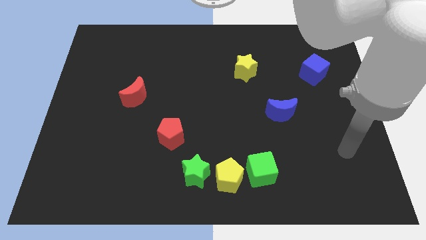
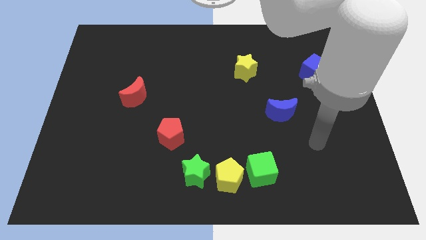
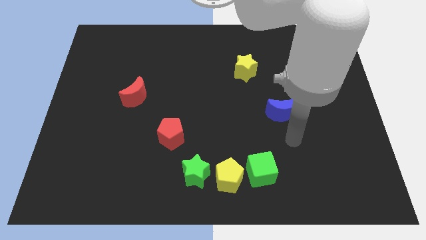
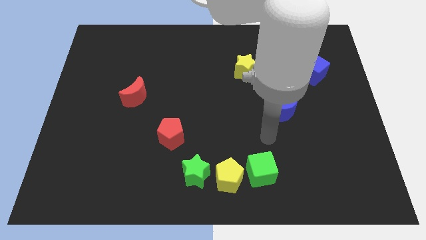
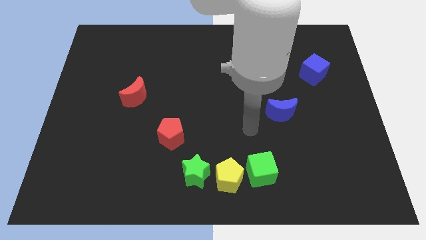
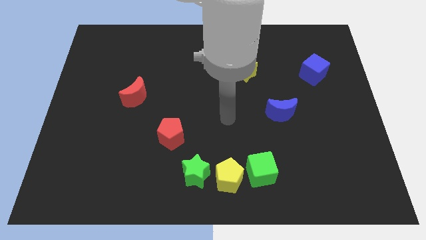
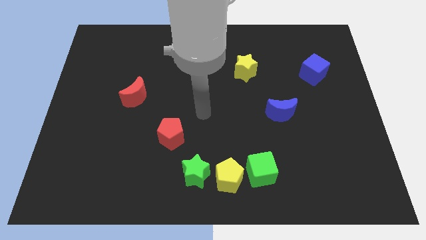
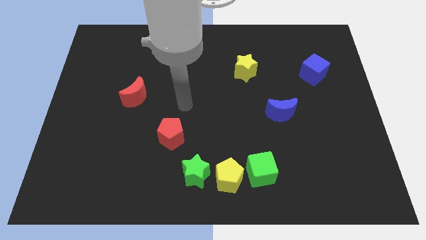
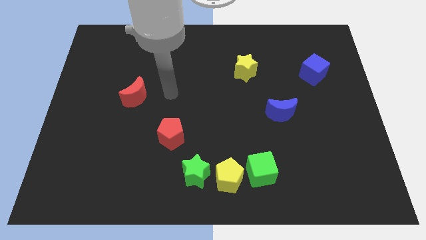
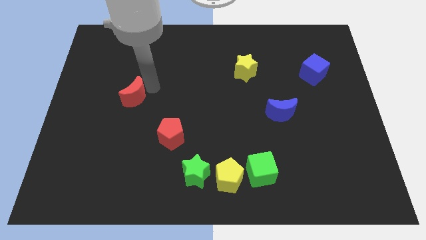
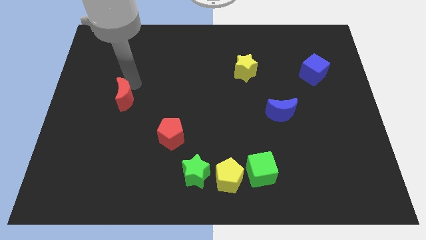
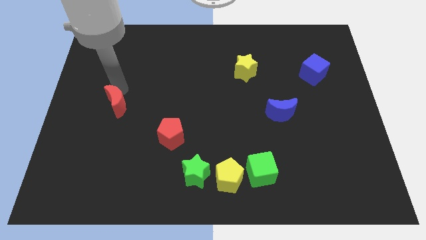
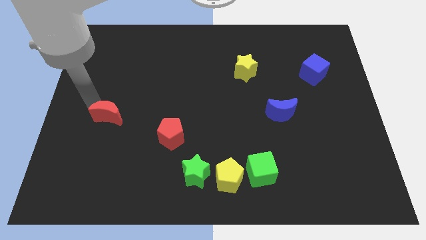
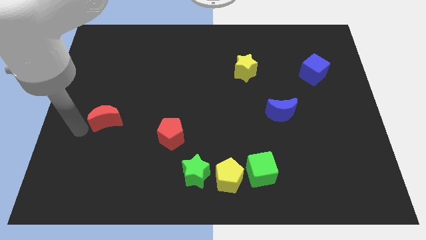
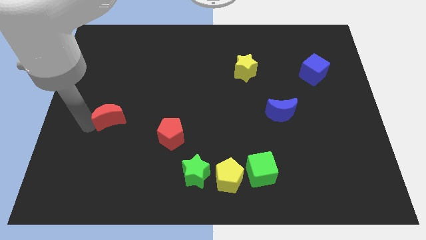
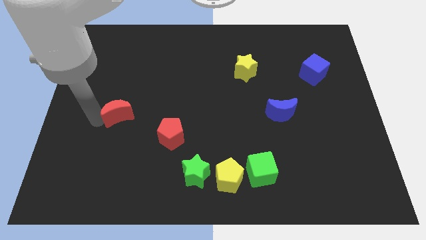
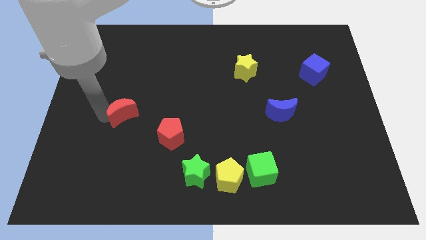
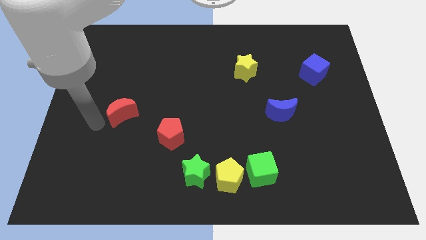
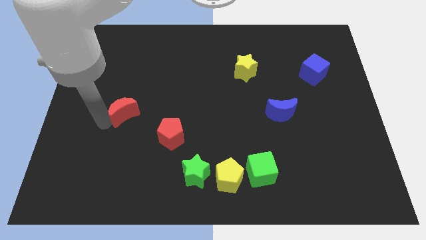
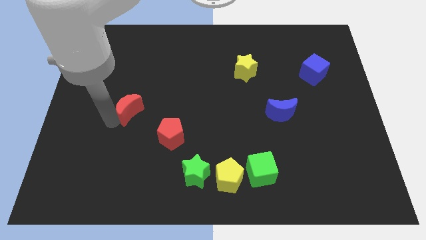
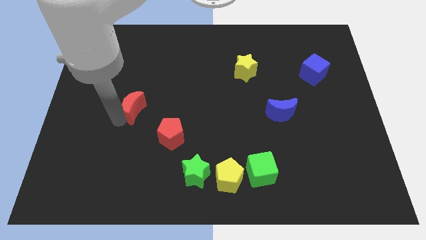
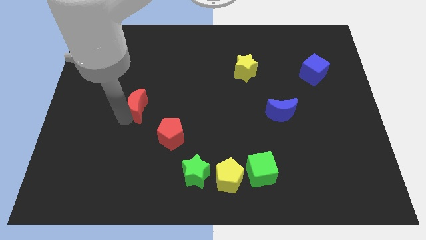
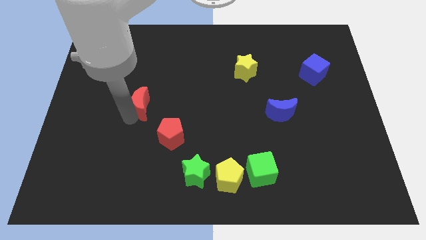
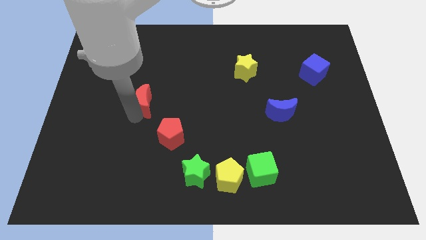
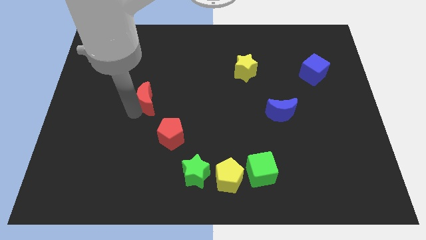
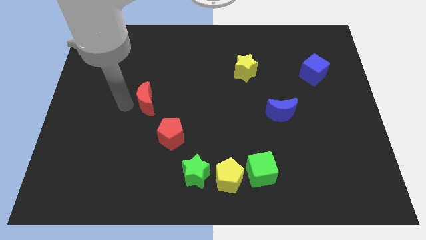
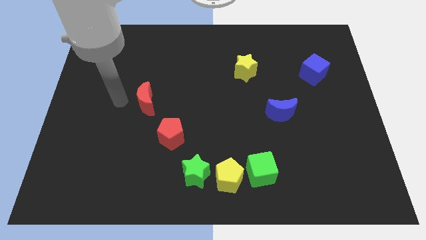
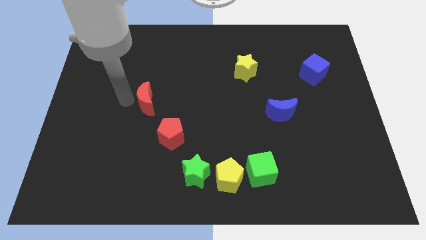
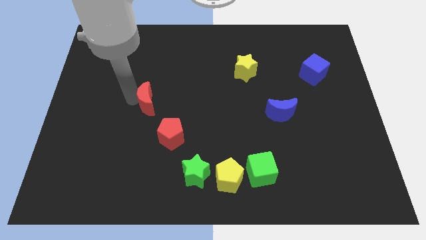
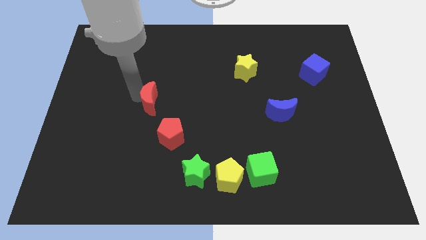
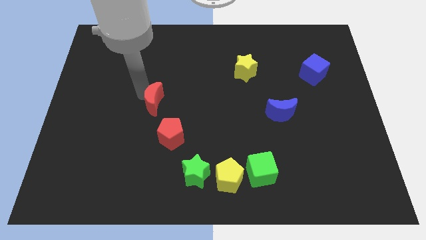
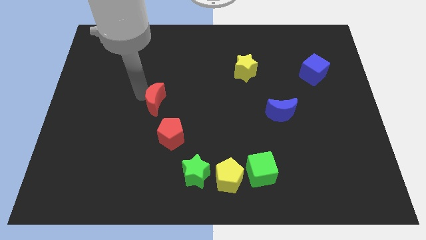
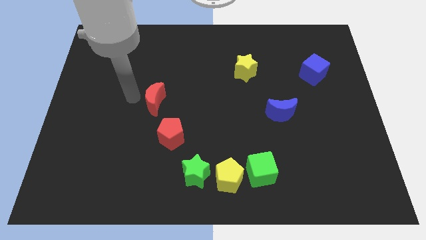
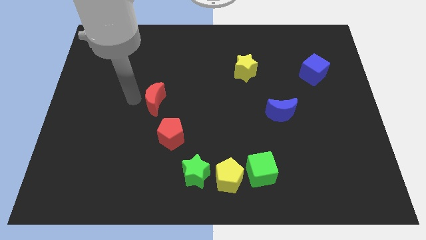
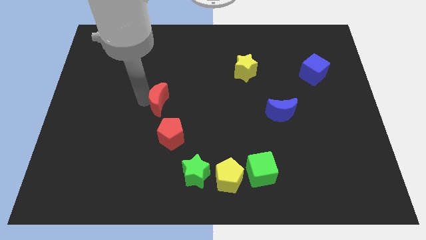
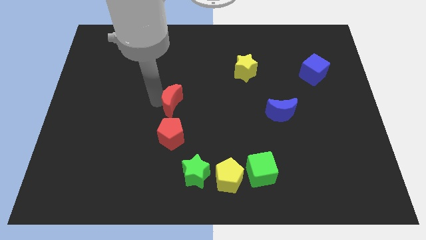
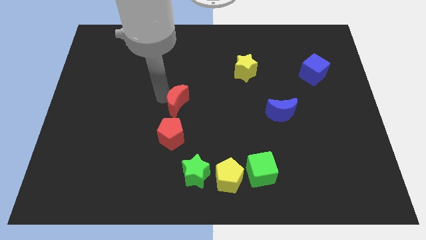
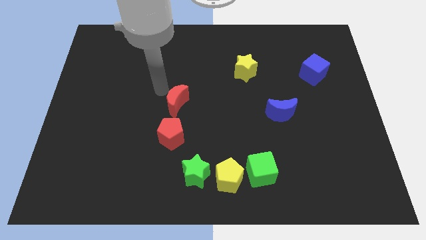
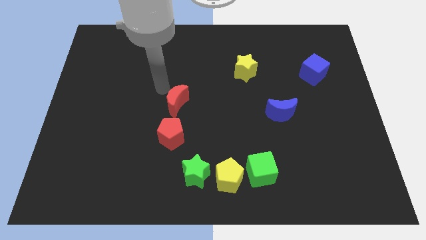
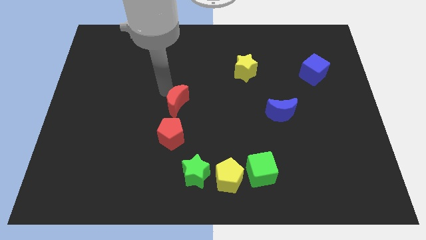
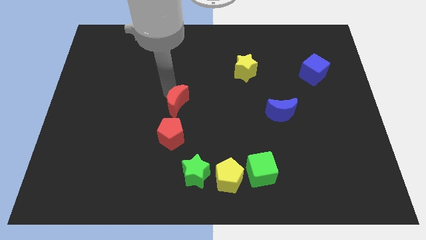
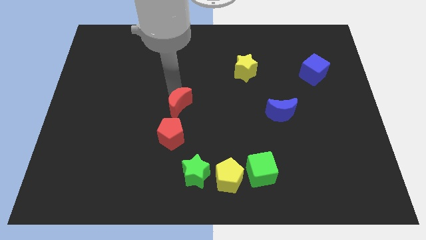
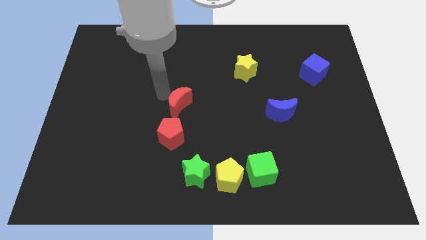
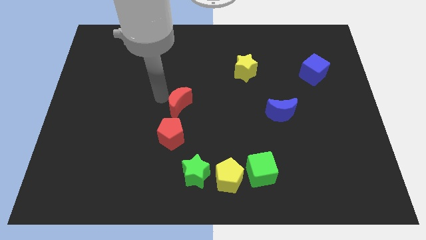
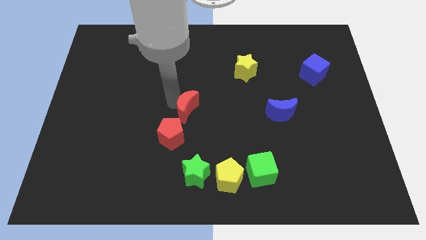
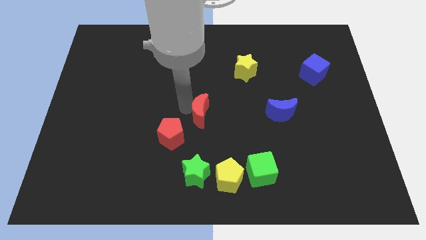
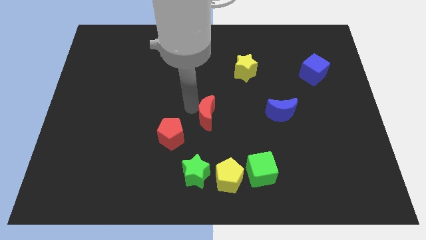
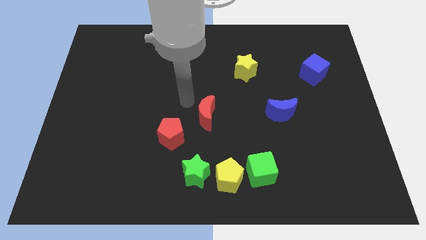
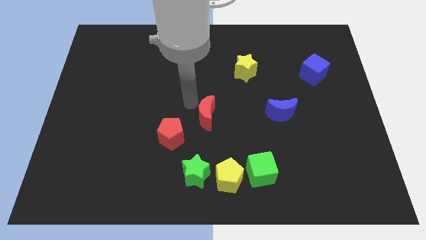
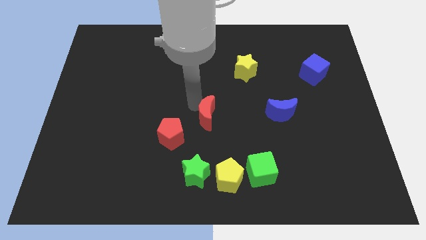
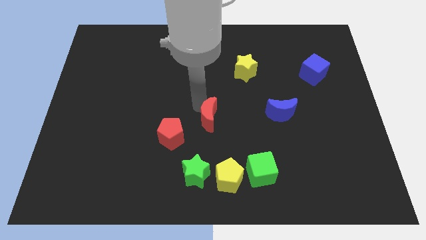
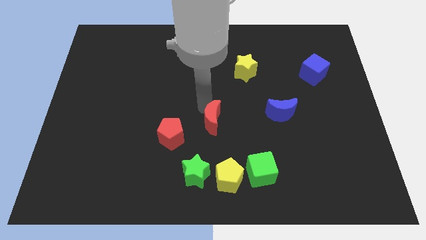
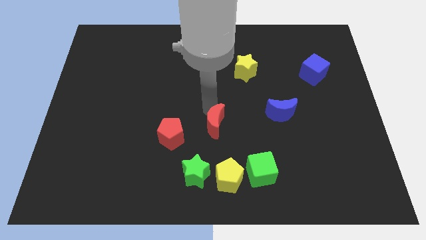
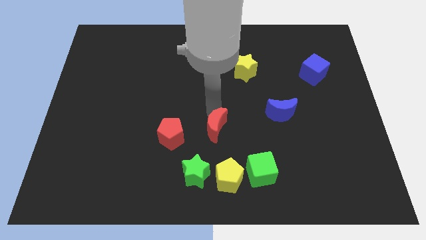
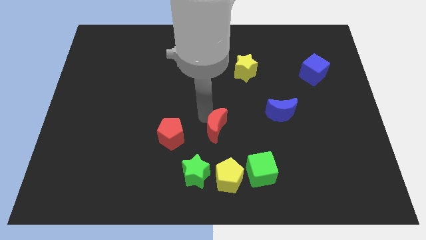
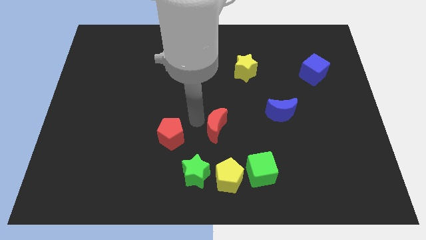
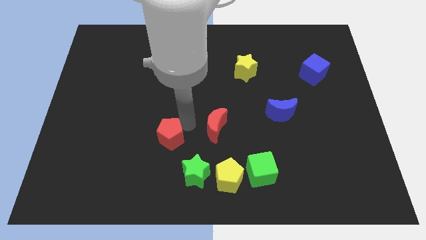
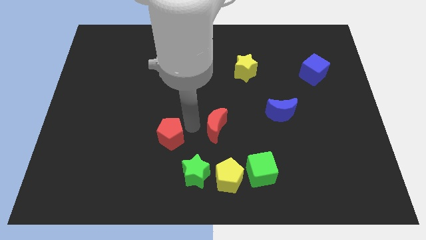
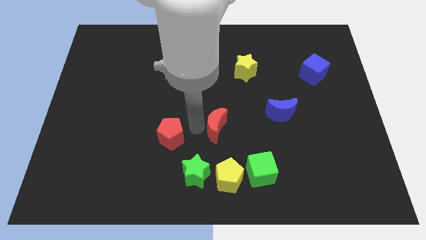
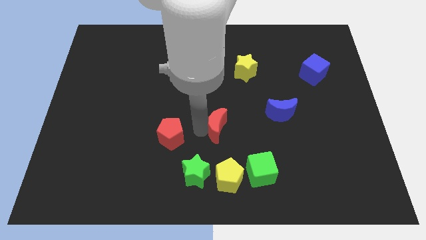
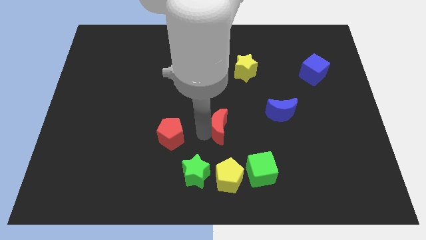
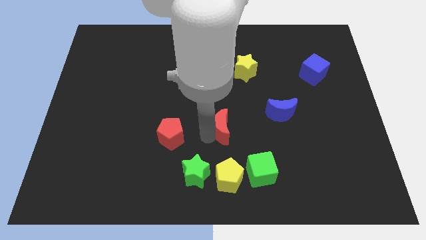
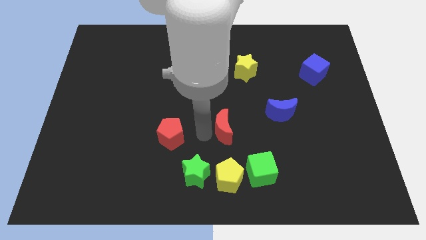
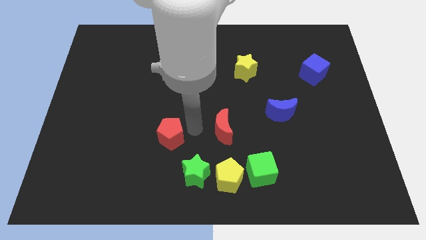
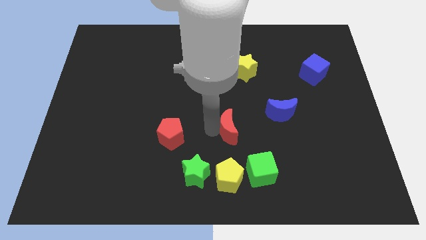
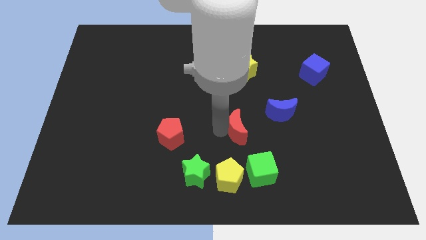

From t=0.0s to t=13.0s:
push the red moon diagonally down and to the left of the blue moon
